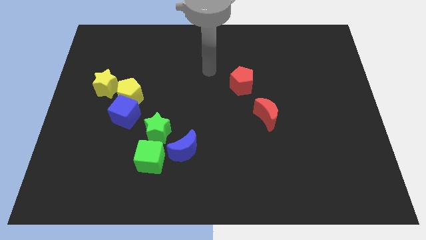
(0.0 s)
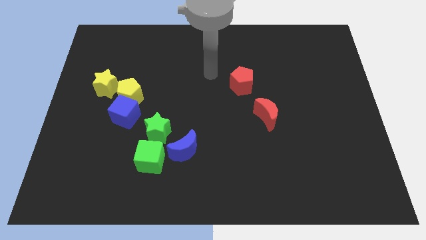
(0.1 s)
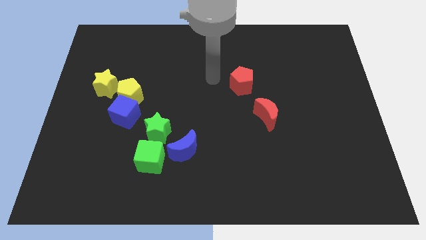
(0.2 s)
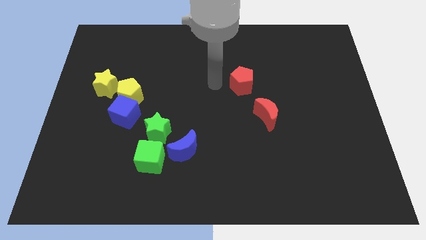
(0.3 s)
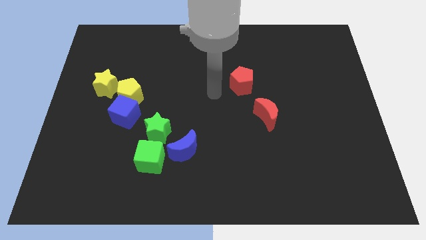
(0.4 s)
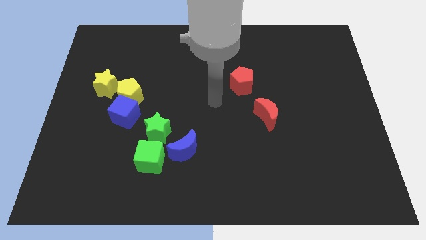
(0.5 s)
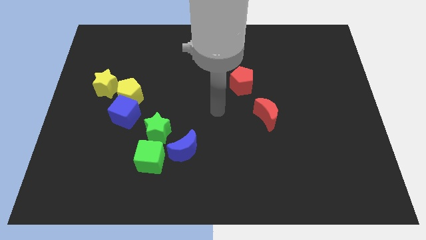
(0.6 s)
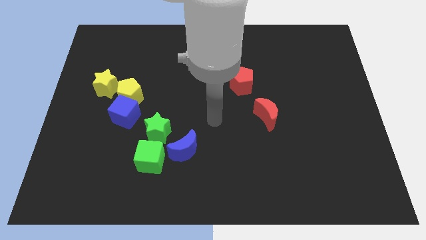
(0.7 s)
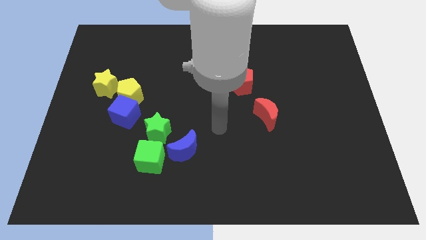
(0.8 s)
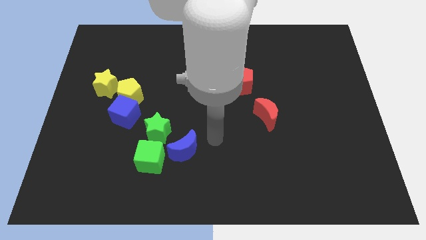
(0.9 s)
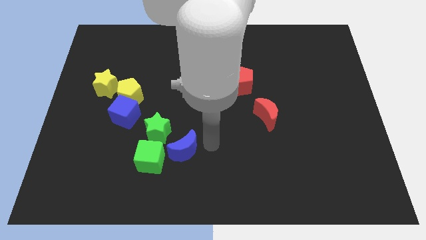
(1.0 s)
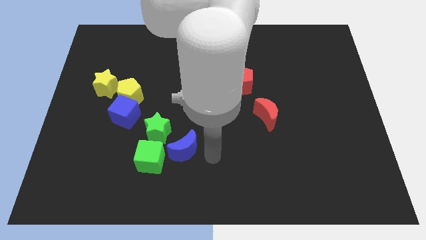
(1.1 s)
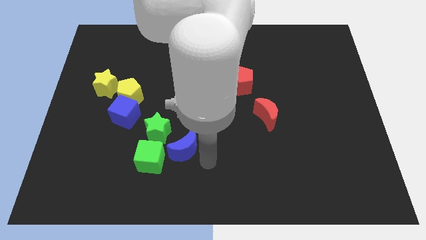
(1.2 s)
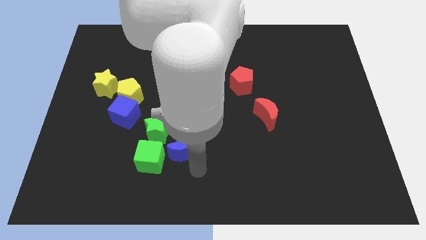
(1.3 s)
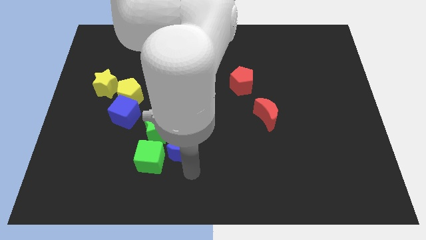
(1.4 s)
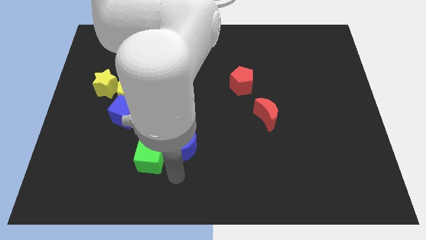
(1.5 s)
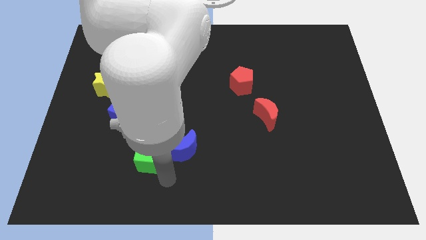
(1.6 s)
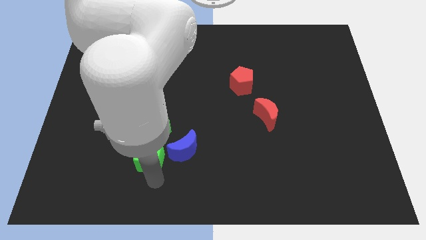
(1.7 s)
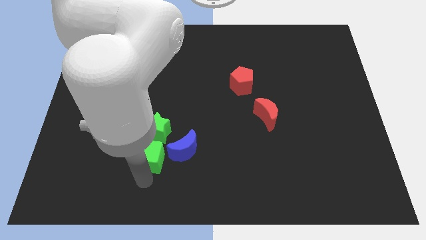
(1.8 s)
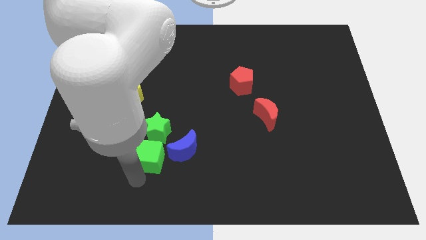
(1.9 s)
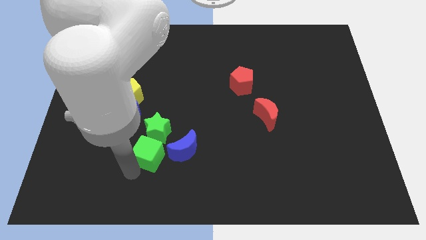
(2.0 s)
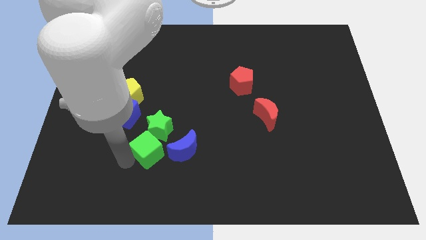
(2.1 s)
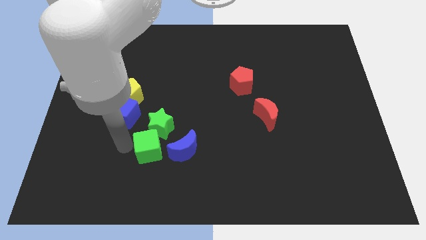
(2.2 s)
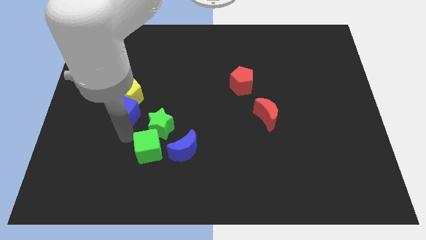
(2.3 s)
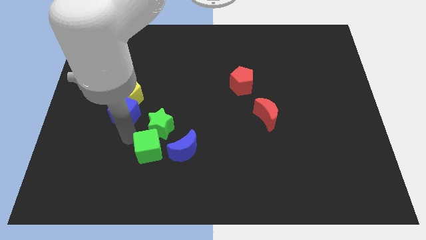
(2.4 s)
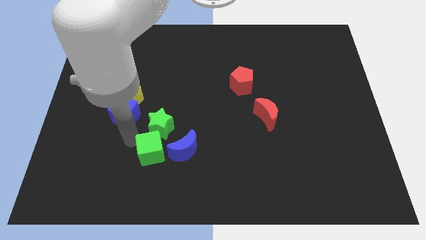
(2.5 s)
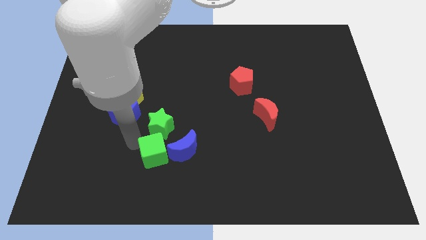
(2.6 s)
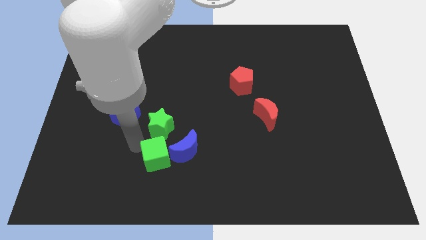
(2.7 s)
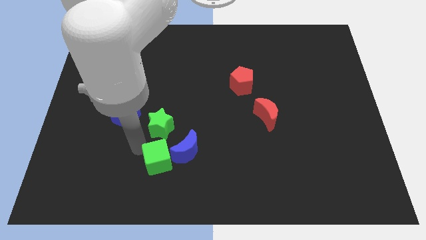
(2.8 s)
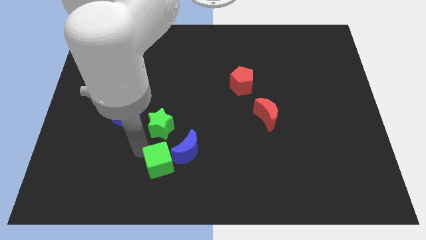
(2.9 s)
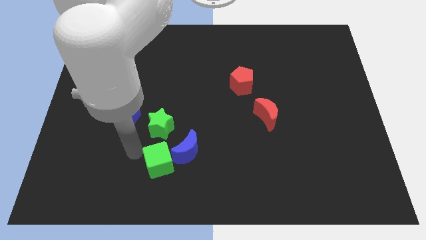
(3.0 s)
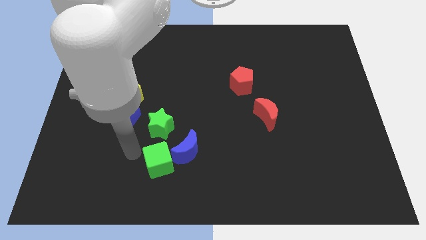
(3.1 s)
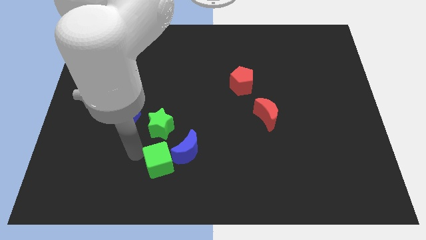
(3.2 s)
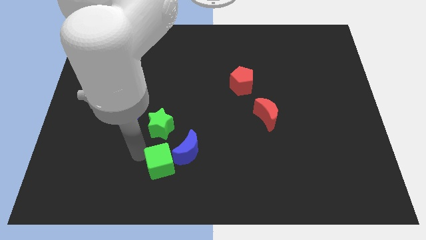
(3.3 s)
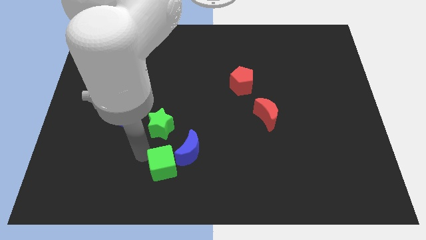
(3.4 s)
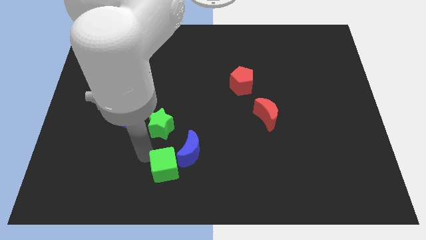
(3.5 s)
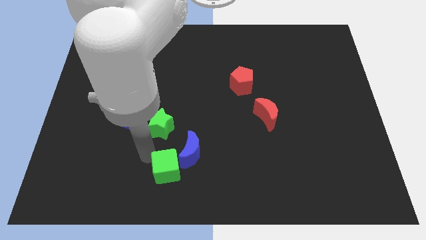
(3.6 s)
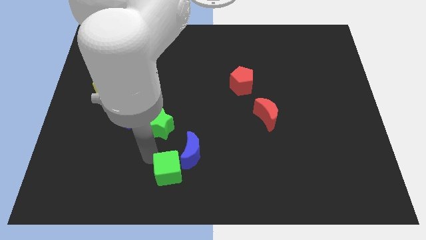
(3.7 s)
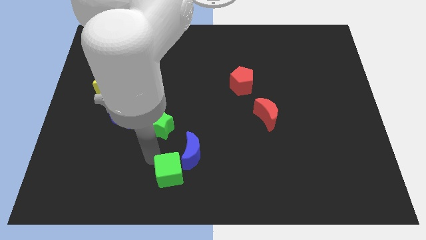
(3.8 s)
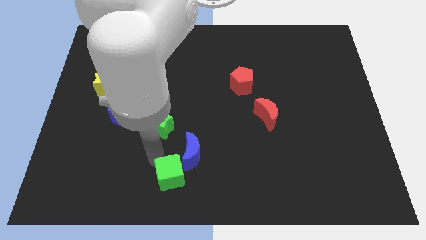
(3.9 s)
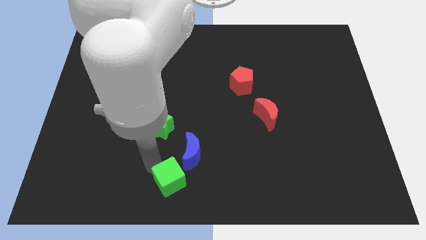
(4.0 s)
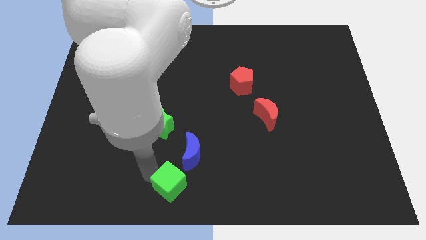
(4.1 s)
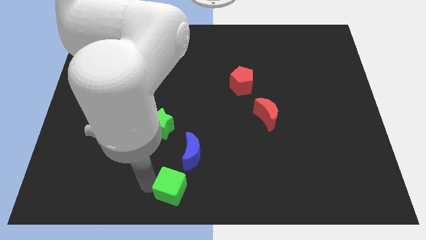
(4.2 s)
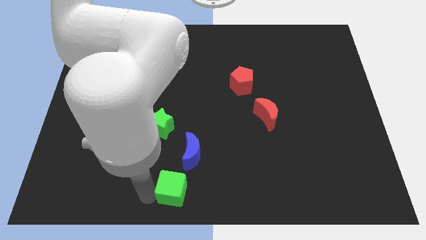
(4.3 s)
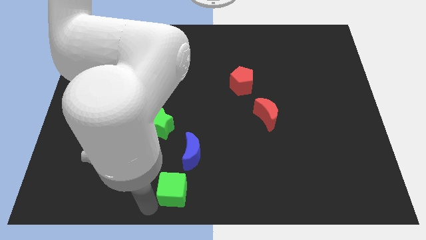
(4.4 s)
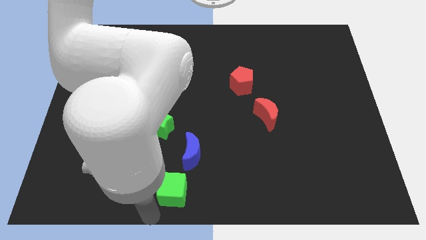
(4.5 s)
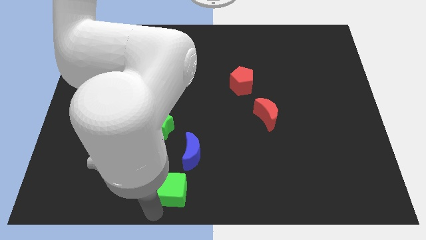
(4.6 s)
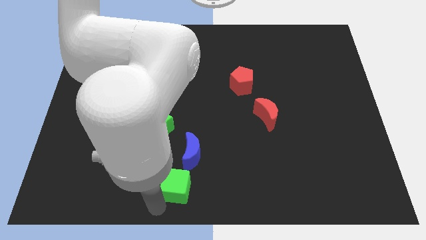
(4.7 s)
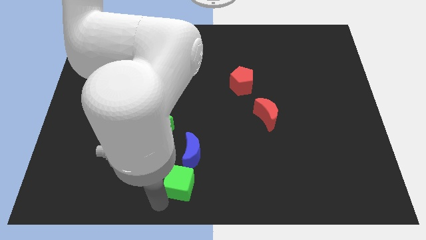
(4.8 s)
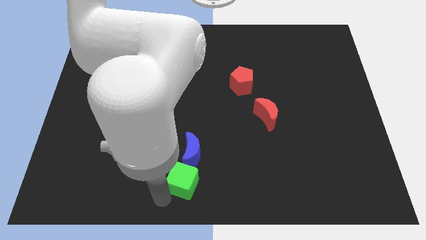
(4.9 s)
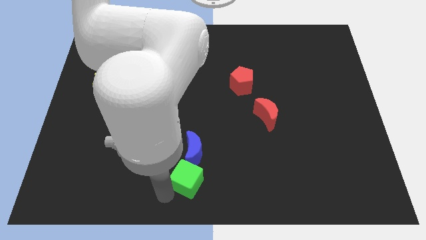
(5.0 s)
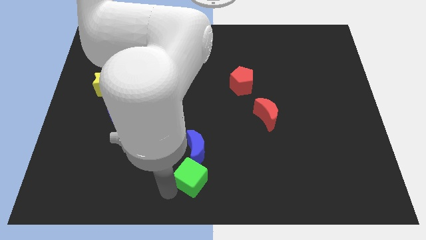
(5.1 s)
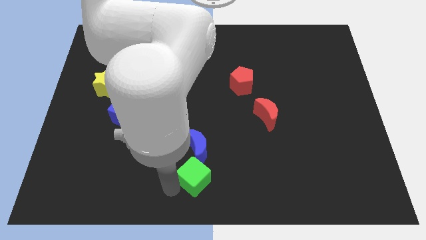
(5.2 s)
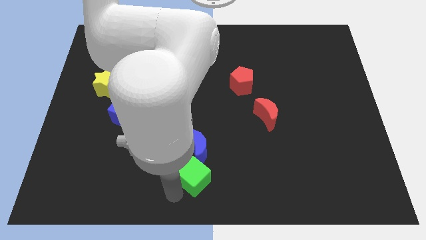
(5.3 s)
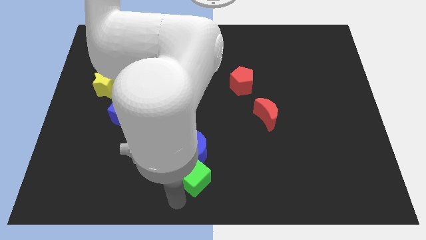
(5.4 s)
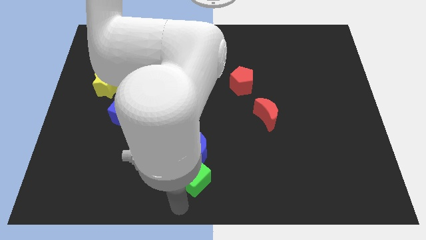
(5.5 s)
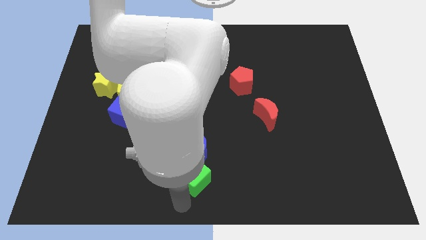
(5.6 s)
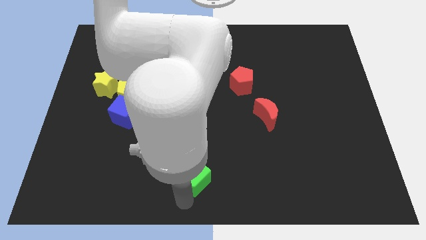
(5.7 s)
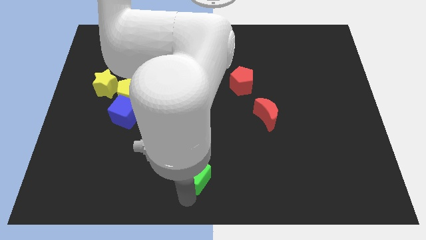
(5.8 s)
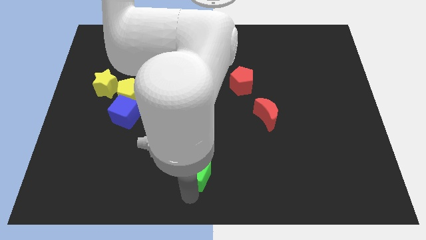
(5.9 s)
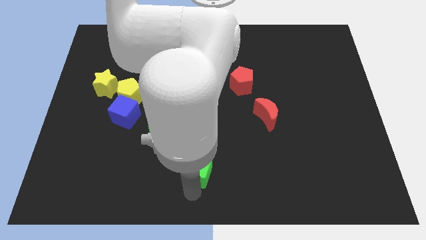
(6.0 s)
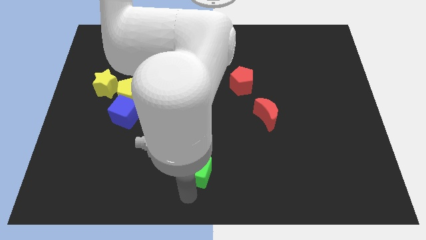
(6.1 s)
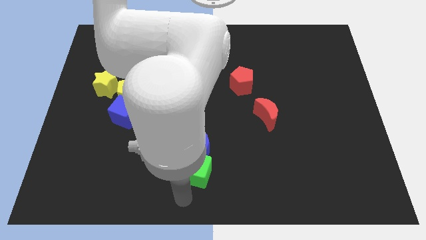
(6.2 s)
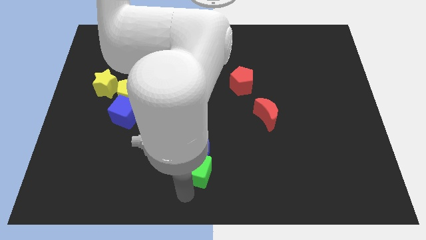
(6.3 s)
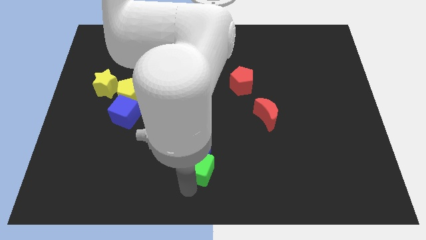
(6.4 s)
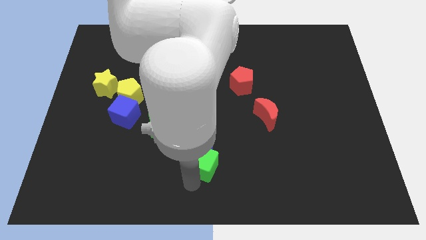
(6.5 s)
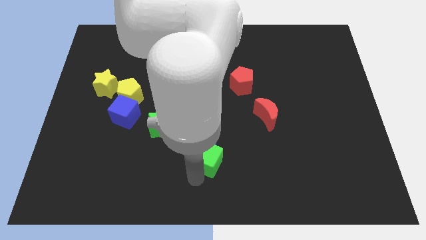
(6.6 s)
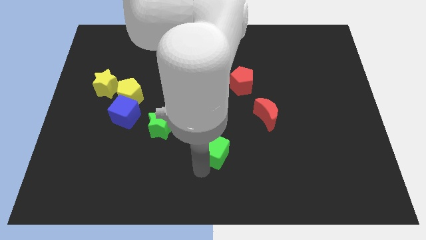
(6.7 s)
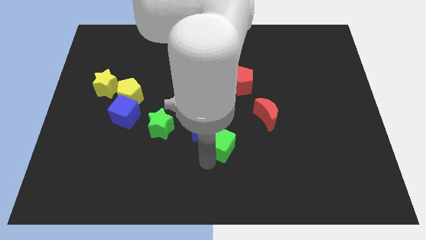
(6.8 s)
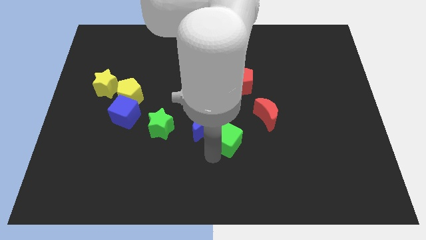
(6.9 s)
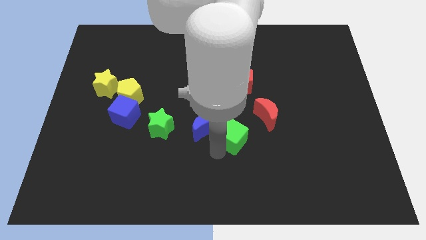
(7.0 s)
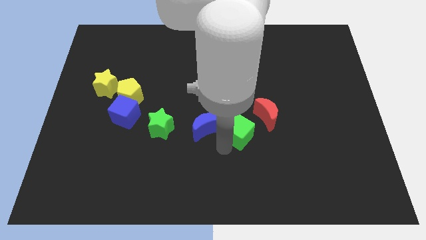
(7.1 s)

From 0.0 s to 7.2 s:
push the green cube to the bottom side of the red pentagon
